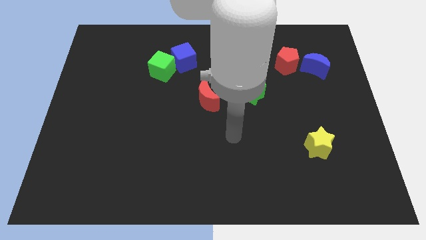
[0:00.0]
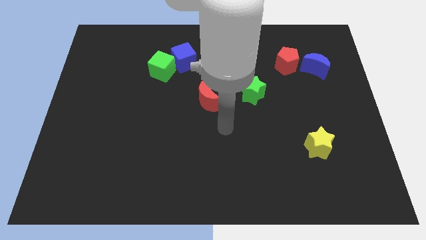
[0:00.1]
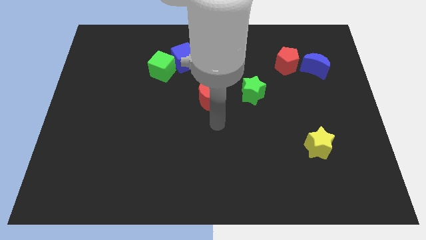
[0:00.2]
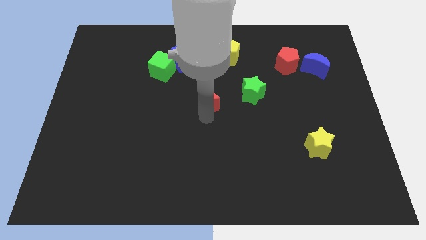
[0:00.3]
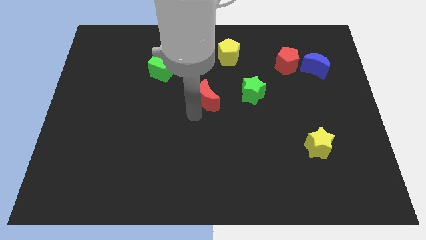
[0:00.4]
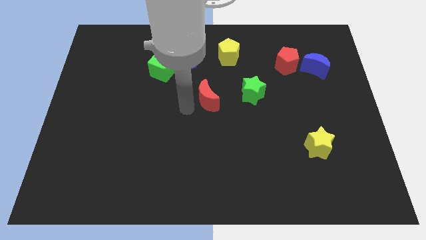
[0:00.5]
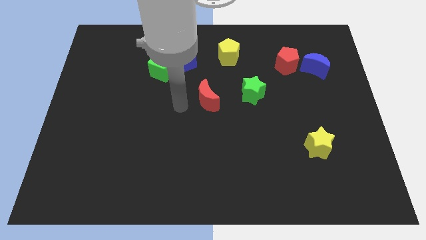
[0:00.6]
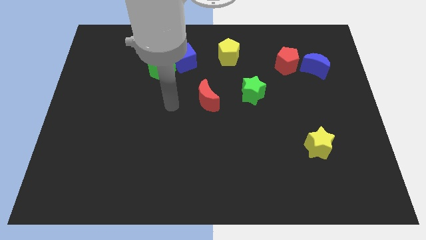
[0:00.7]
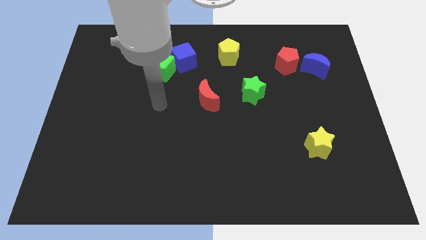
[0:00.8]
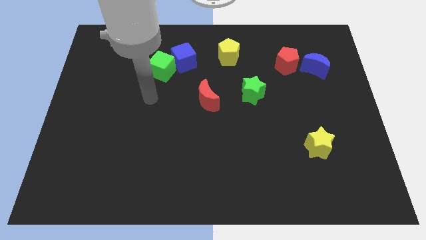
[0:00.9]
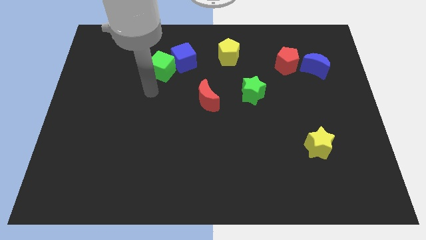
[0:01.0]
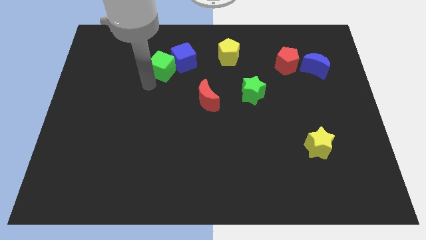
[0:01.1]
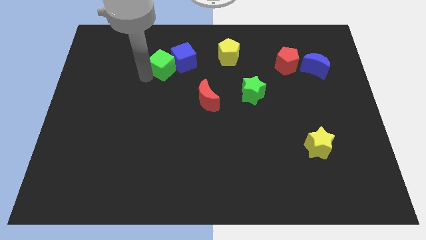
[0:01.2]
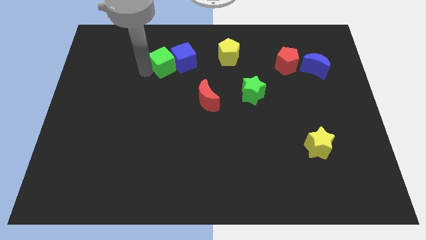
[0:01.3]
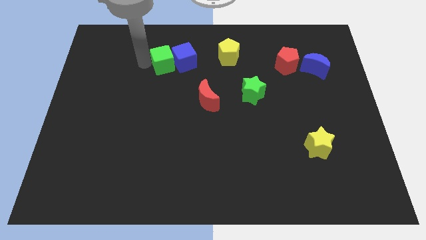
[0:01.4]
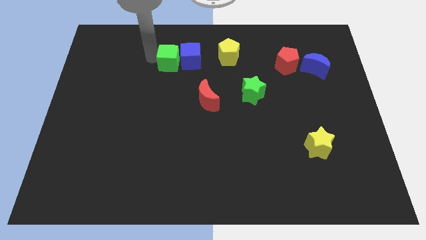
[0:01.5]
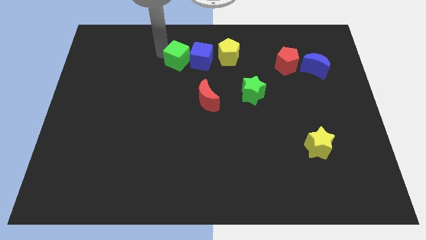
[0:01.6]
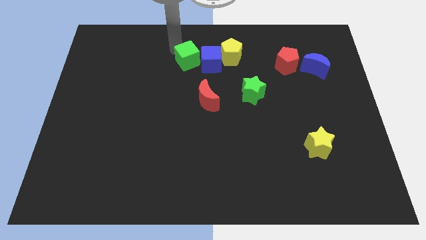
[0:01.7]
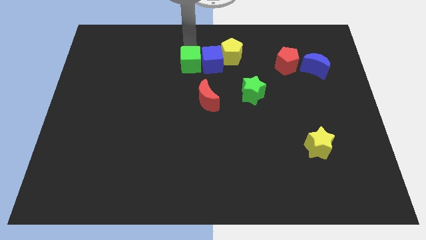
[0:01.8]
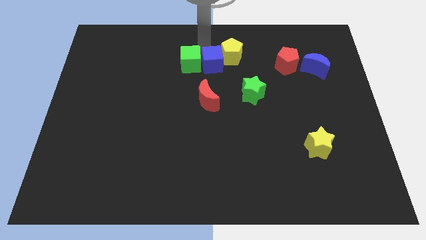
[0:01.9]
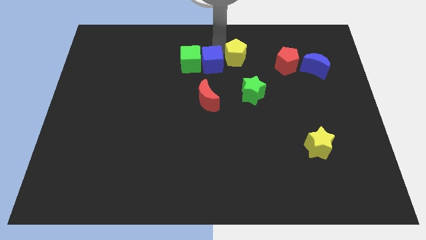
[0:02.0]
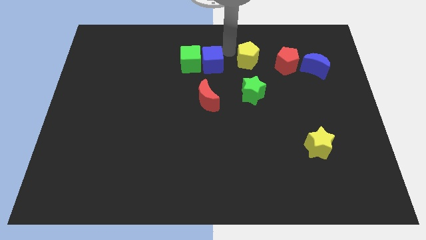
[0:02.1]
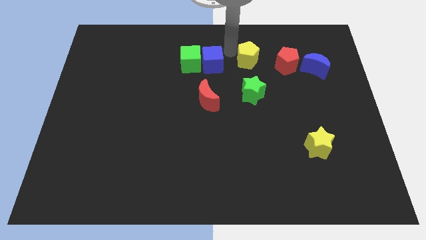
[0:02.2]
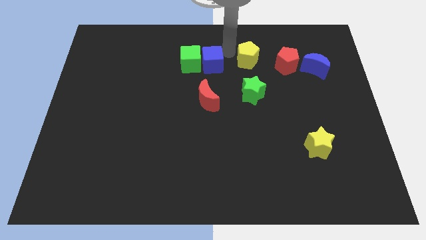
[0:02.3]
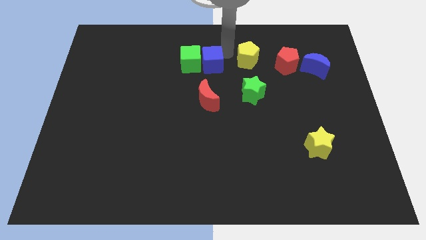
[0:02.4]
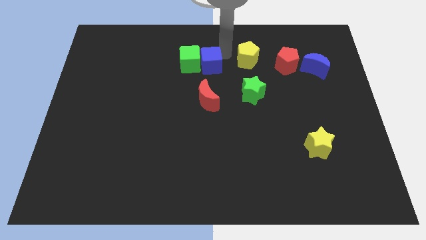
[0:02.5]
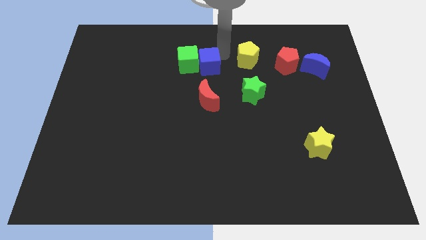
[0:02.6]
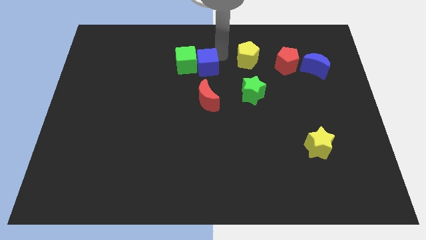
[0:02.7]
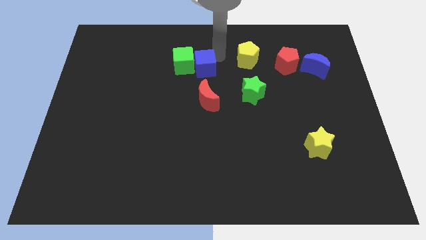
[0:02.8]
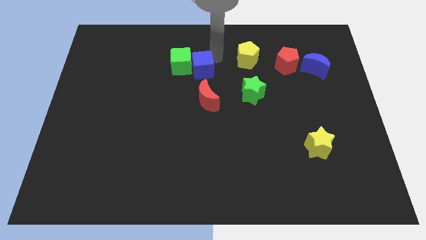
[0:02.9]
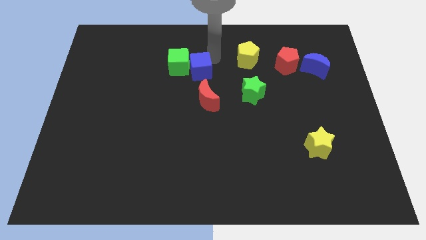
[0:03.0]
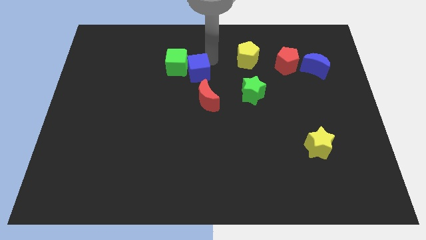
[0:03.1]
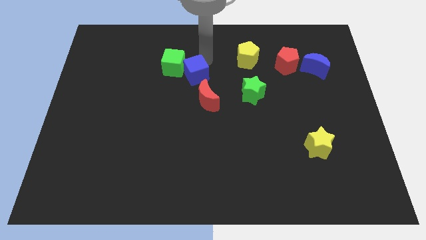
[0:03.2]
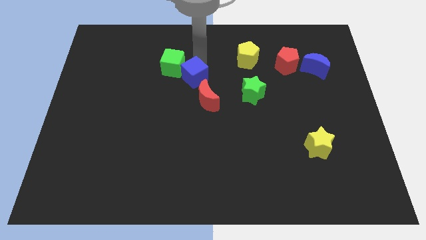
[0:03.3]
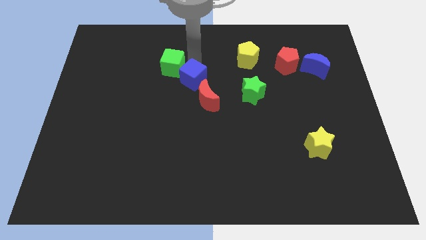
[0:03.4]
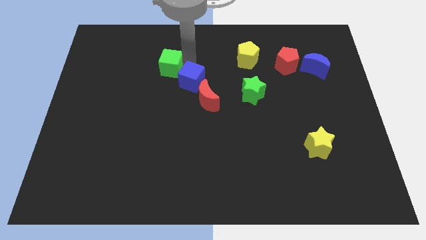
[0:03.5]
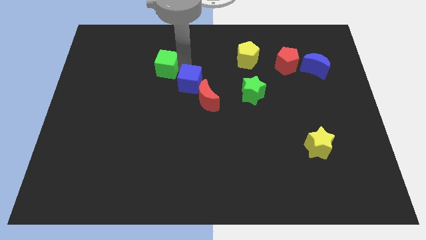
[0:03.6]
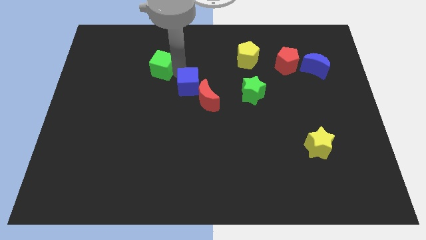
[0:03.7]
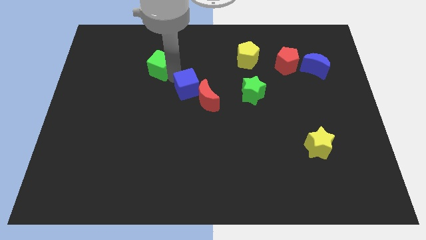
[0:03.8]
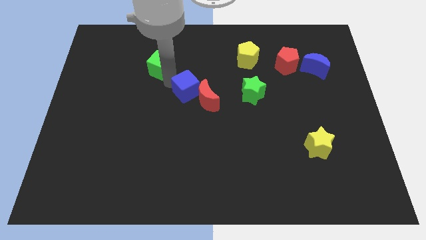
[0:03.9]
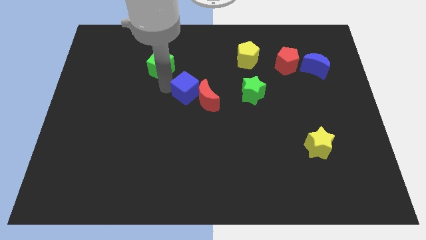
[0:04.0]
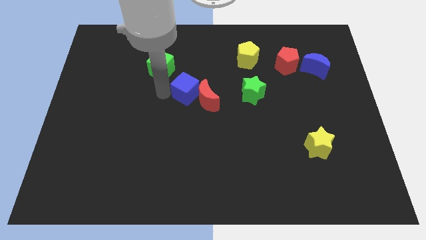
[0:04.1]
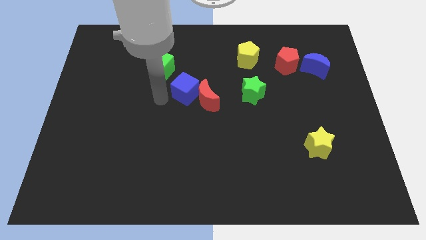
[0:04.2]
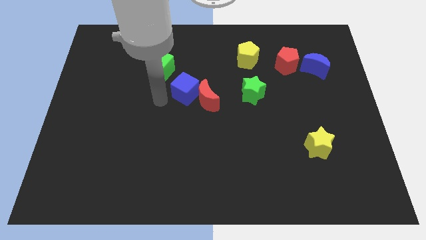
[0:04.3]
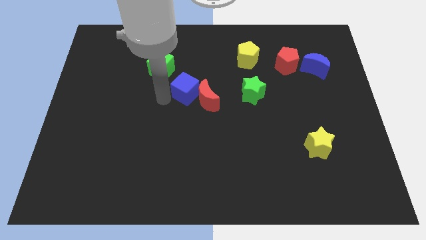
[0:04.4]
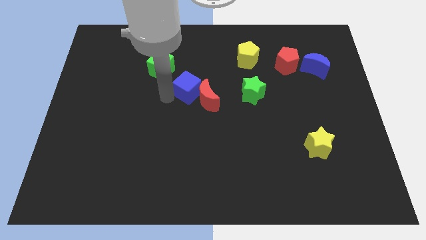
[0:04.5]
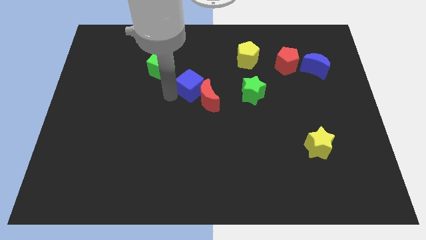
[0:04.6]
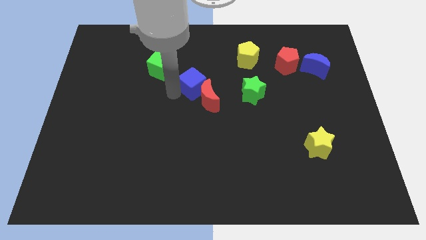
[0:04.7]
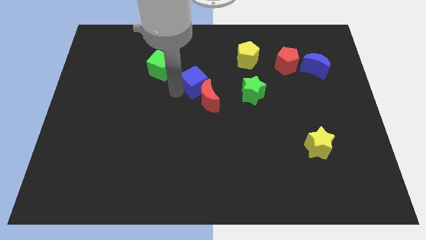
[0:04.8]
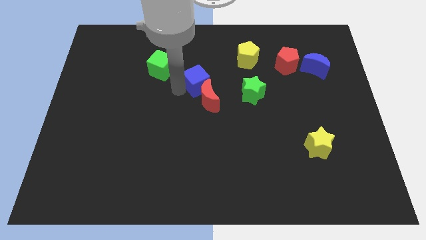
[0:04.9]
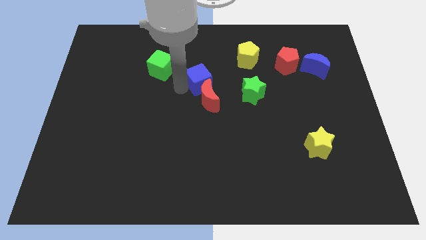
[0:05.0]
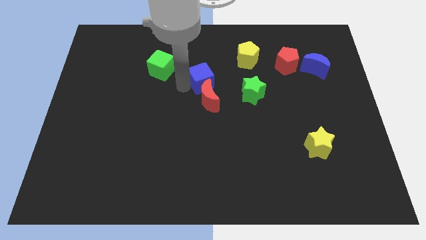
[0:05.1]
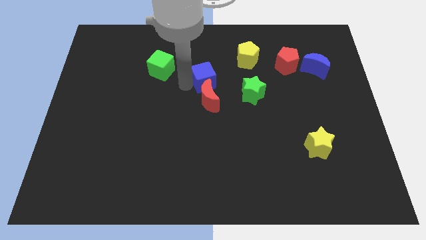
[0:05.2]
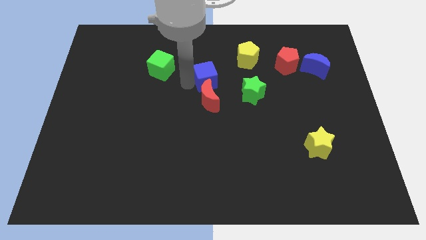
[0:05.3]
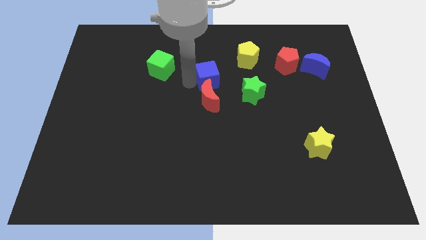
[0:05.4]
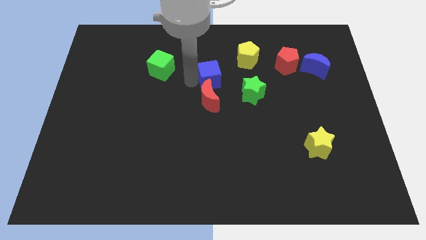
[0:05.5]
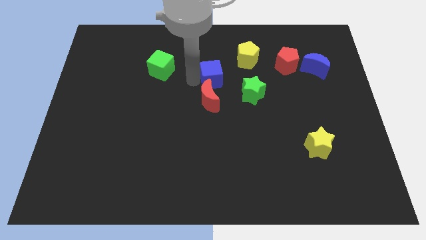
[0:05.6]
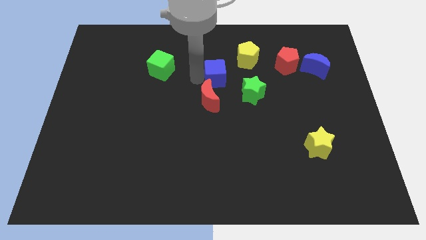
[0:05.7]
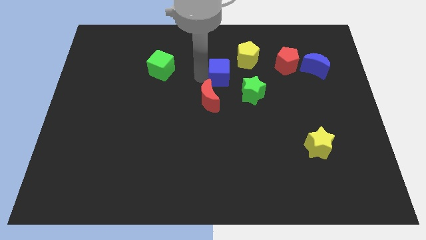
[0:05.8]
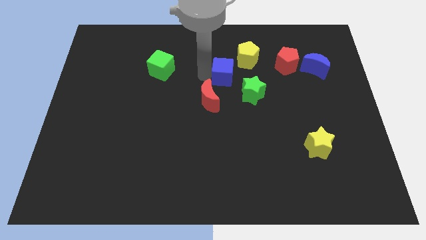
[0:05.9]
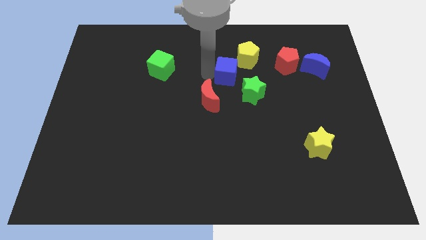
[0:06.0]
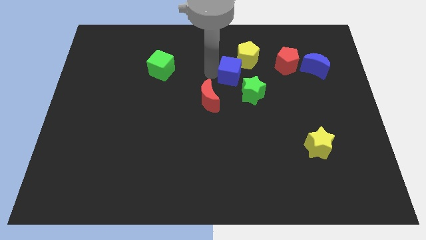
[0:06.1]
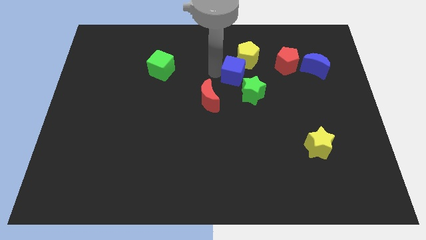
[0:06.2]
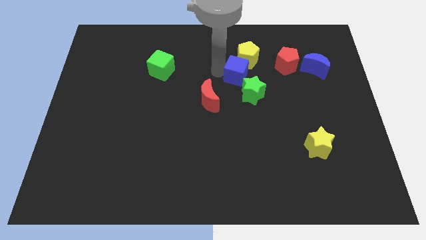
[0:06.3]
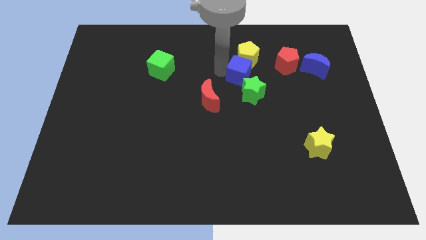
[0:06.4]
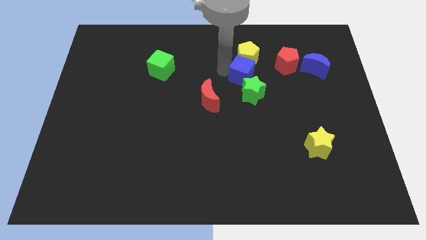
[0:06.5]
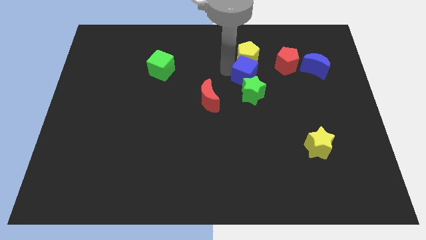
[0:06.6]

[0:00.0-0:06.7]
slide the blue cube close to the green star

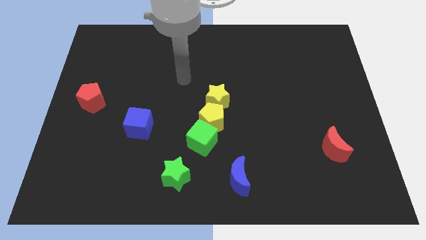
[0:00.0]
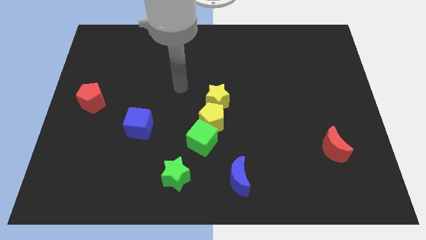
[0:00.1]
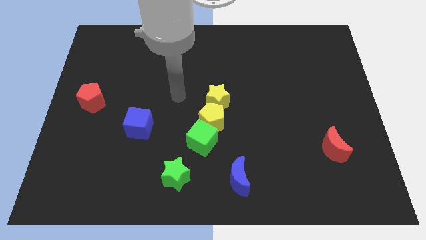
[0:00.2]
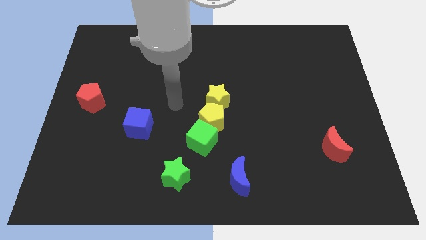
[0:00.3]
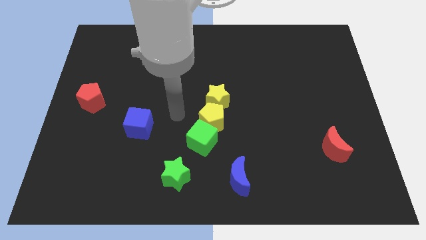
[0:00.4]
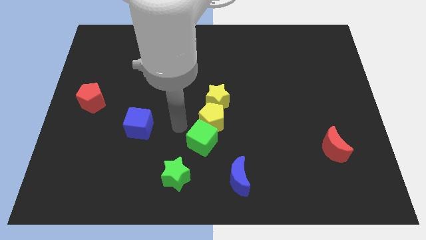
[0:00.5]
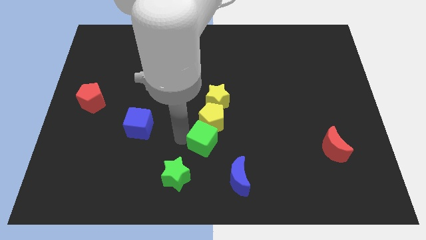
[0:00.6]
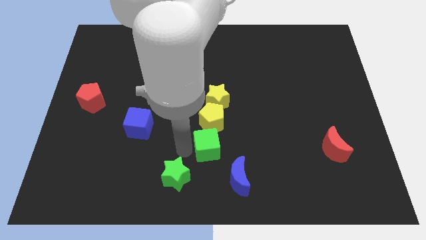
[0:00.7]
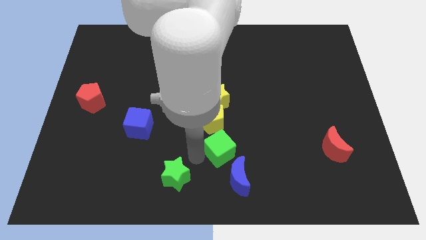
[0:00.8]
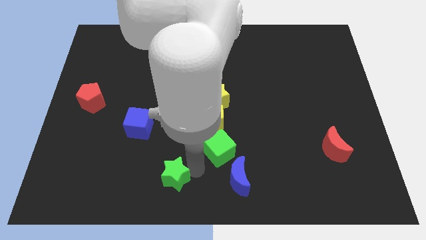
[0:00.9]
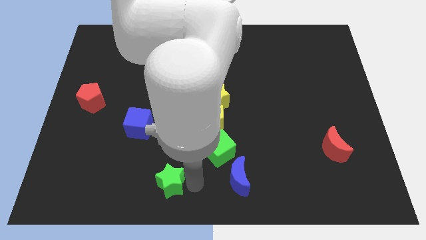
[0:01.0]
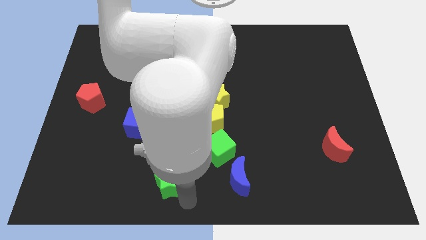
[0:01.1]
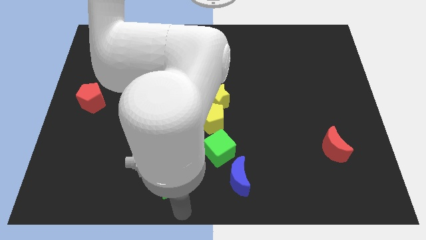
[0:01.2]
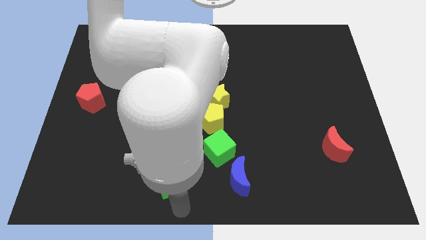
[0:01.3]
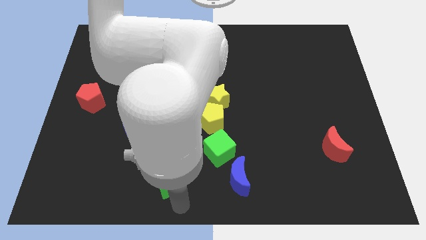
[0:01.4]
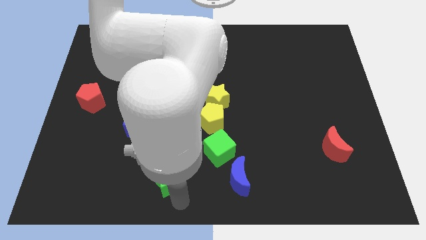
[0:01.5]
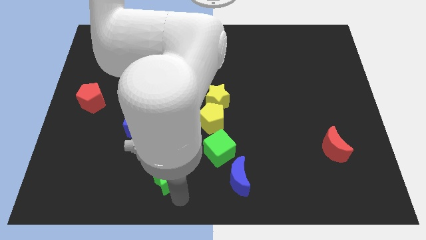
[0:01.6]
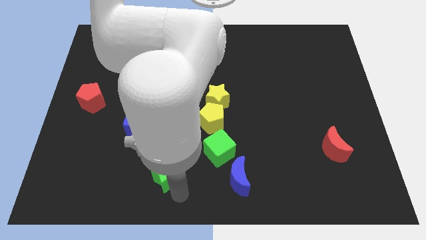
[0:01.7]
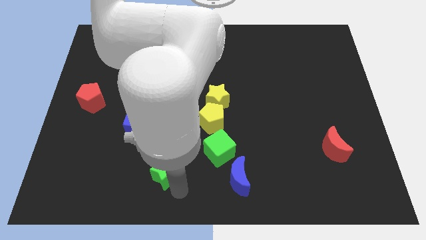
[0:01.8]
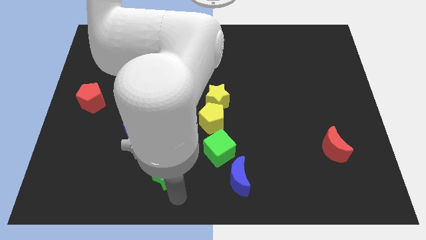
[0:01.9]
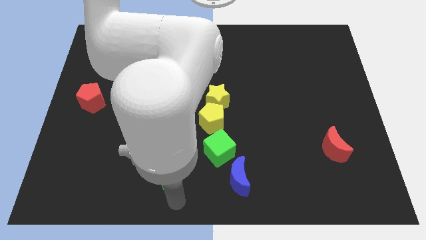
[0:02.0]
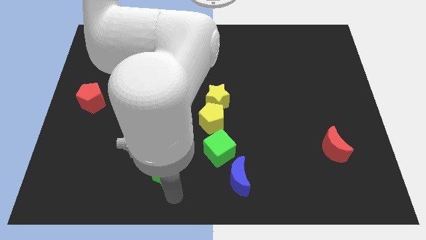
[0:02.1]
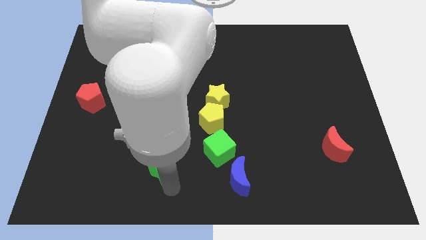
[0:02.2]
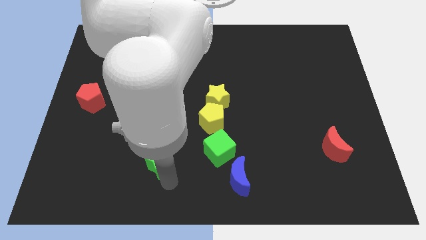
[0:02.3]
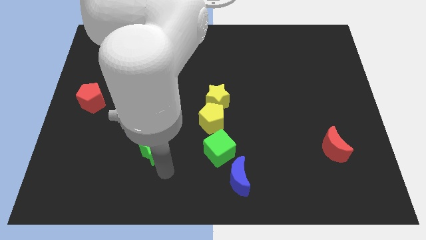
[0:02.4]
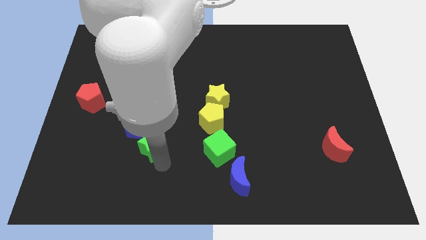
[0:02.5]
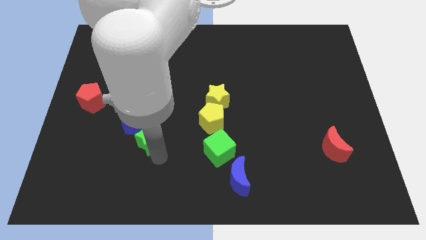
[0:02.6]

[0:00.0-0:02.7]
push the green star towards the blue cube
